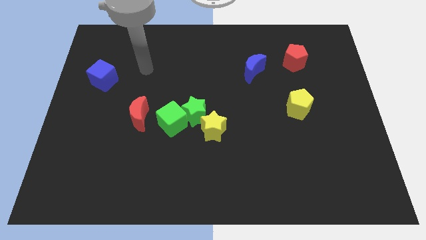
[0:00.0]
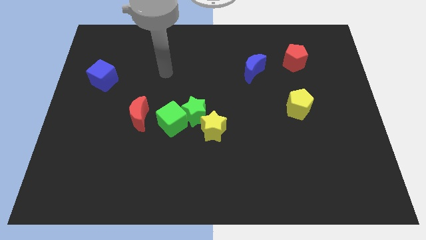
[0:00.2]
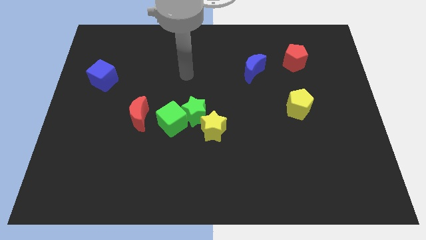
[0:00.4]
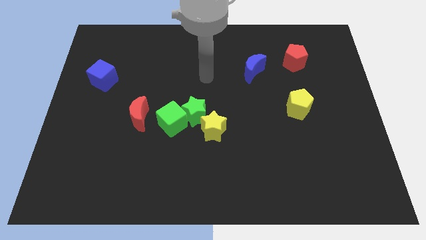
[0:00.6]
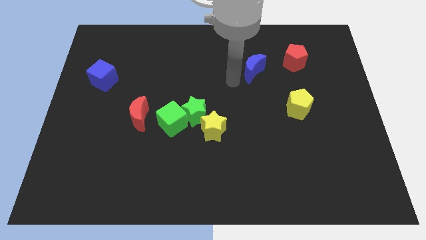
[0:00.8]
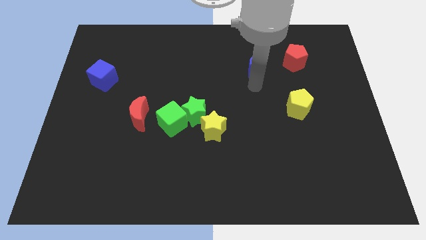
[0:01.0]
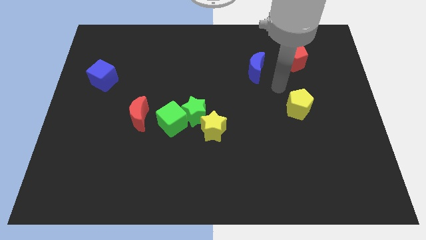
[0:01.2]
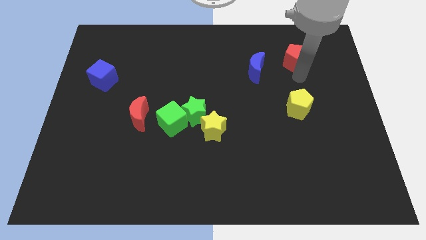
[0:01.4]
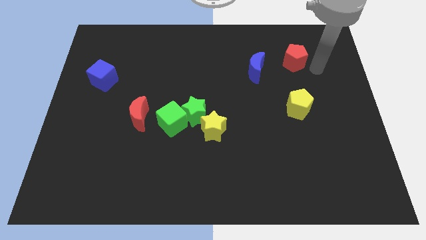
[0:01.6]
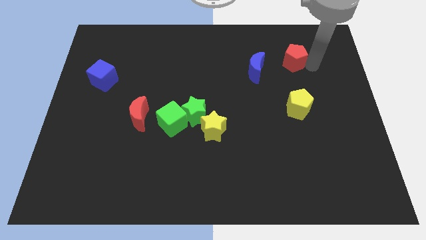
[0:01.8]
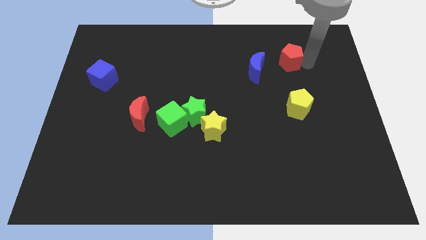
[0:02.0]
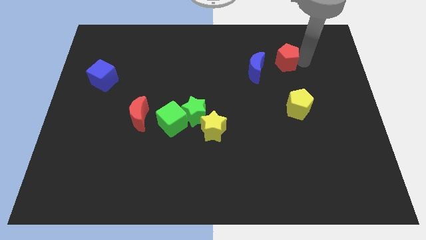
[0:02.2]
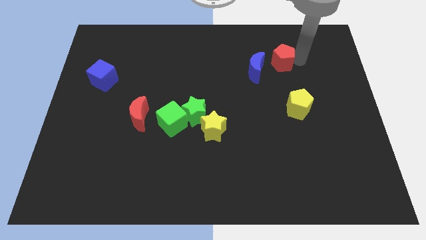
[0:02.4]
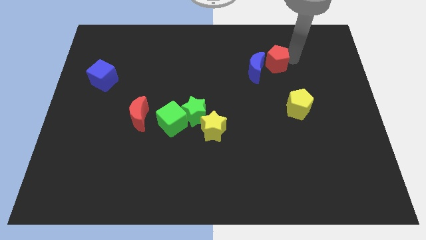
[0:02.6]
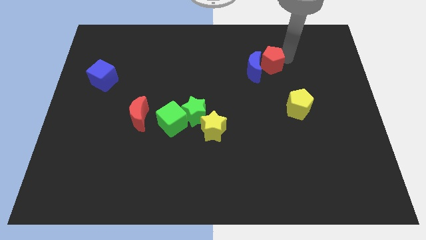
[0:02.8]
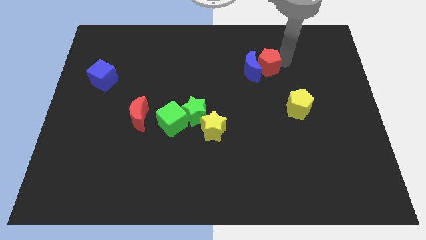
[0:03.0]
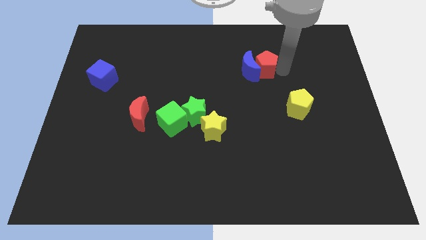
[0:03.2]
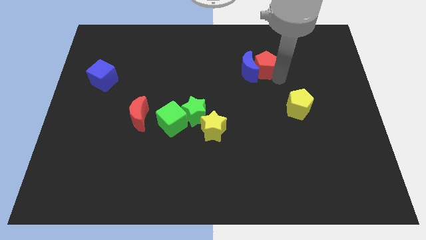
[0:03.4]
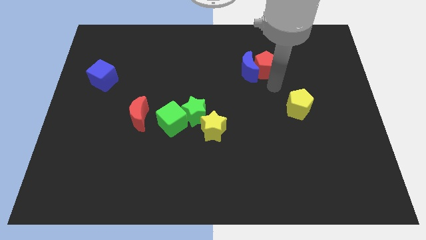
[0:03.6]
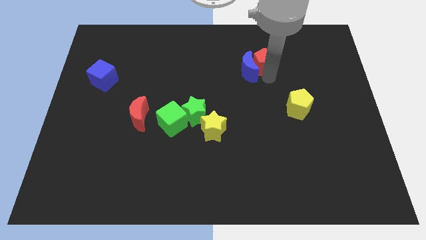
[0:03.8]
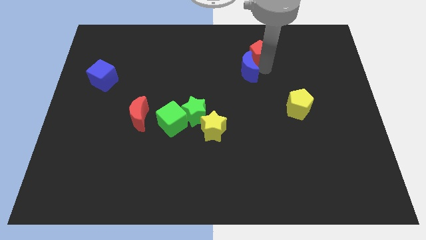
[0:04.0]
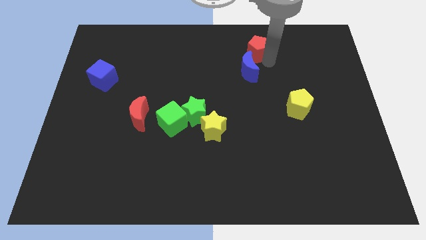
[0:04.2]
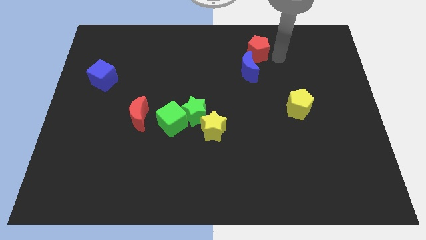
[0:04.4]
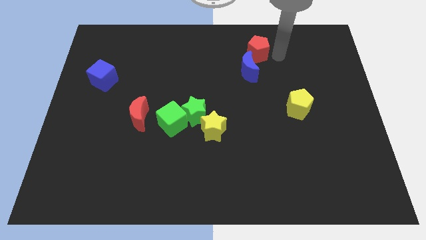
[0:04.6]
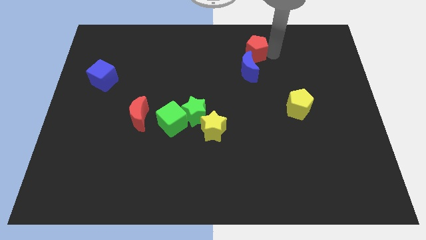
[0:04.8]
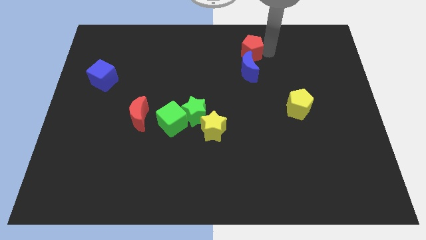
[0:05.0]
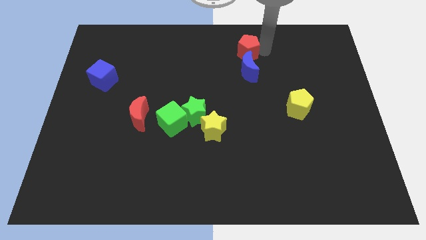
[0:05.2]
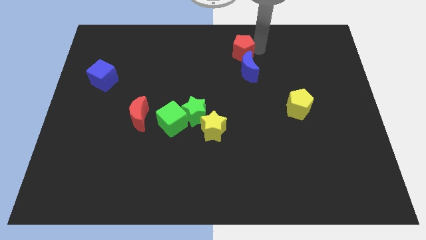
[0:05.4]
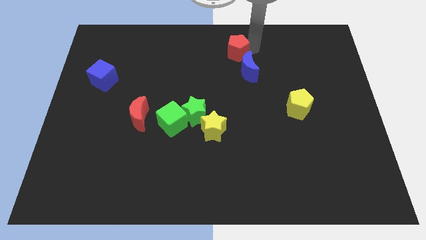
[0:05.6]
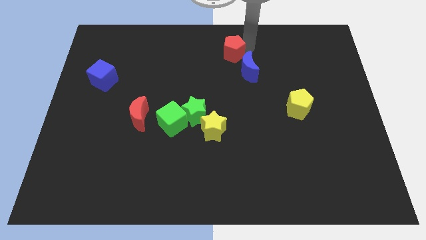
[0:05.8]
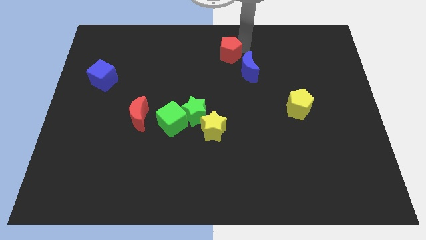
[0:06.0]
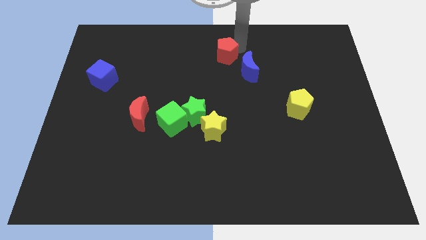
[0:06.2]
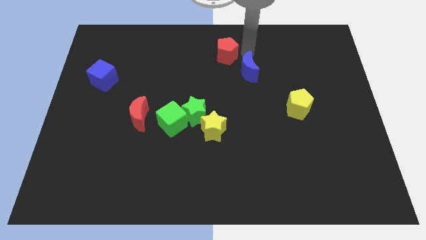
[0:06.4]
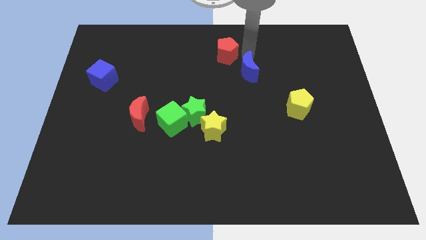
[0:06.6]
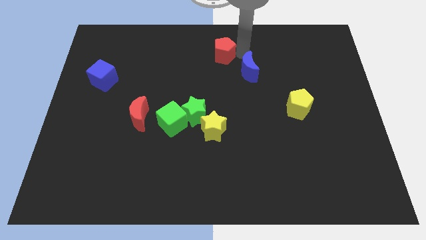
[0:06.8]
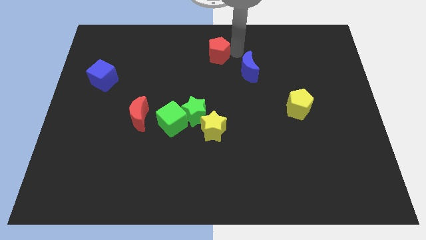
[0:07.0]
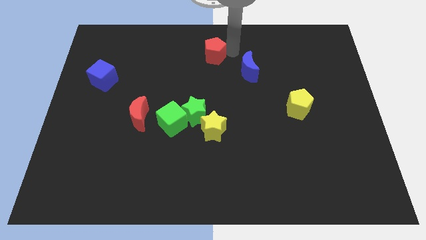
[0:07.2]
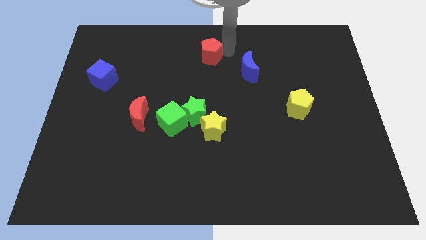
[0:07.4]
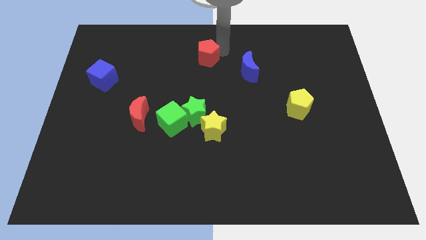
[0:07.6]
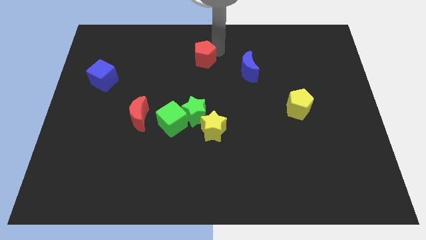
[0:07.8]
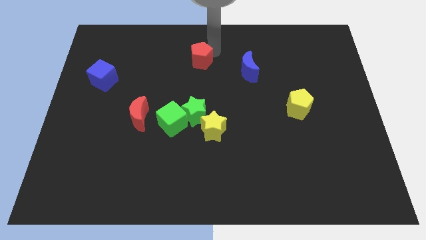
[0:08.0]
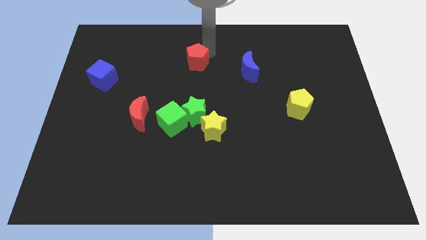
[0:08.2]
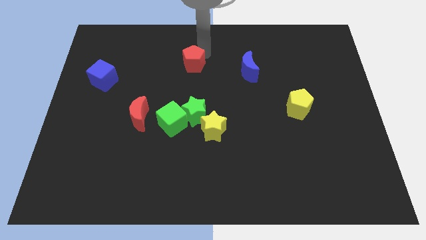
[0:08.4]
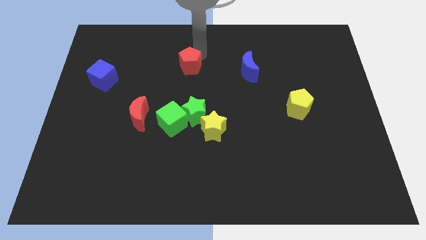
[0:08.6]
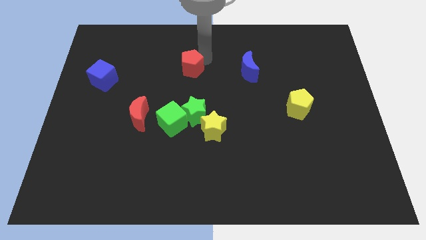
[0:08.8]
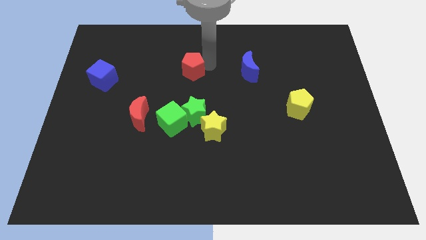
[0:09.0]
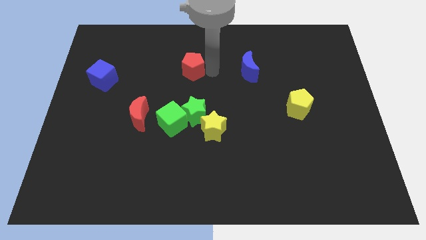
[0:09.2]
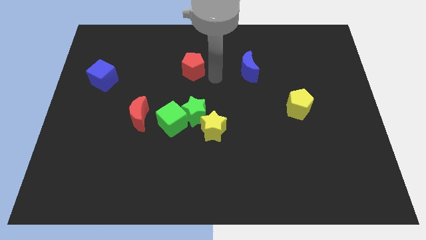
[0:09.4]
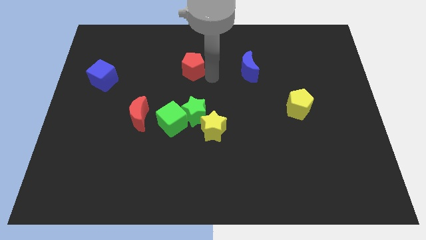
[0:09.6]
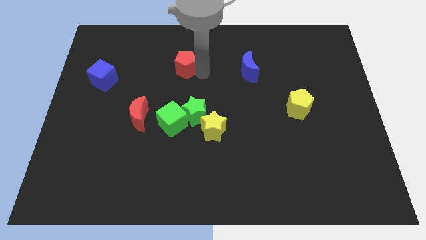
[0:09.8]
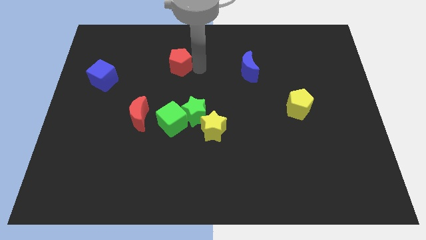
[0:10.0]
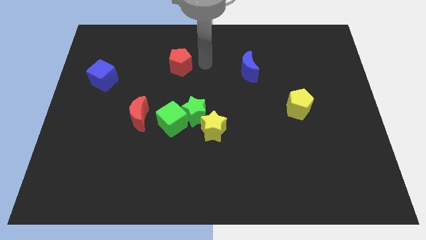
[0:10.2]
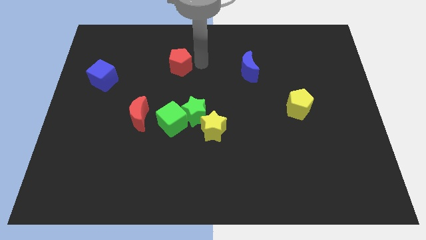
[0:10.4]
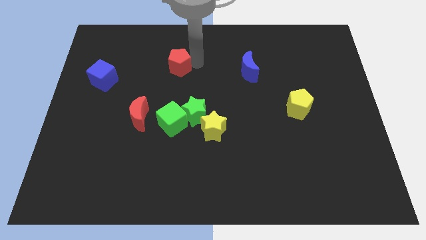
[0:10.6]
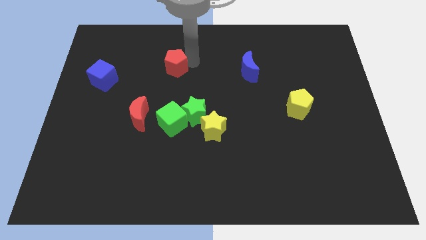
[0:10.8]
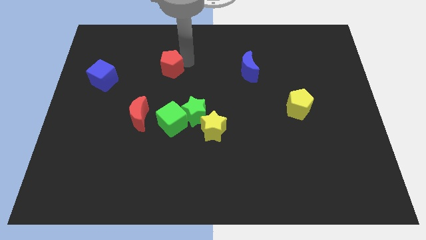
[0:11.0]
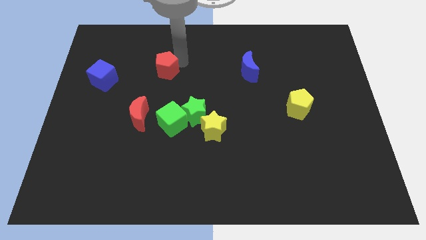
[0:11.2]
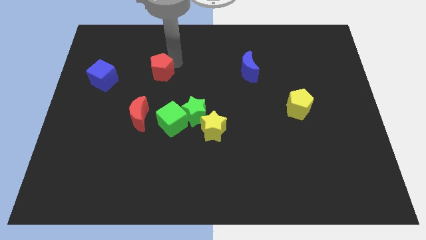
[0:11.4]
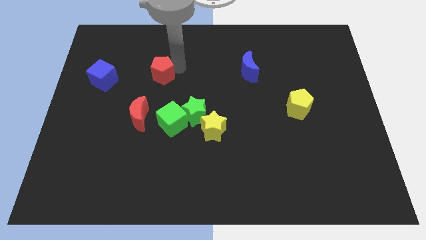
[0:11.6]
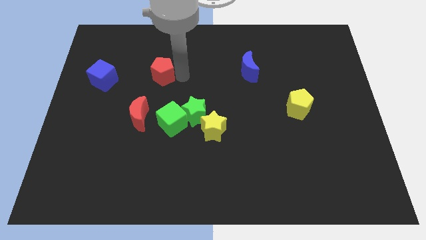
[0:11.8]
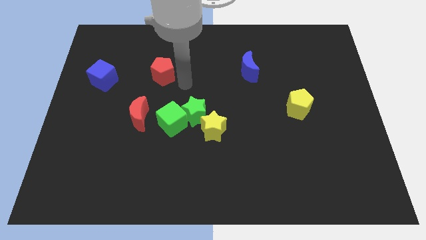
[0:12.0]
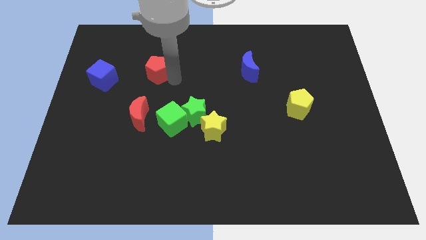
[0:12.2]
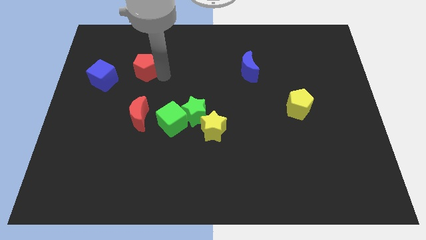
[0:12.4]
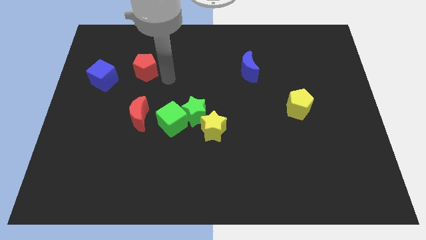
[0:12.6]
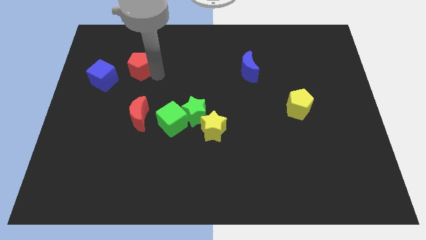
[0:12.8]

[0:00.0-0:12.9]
move the red pentagon to the top right of the blue cube
